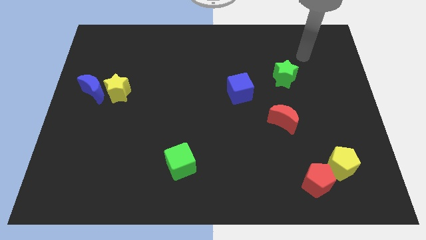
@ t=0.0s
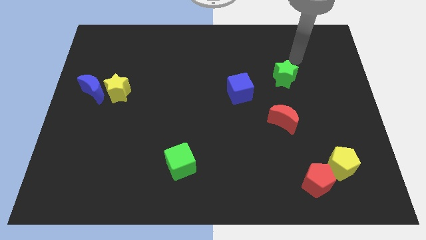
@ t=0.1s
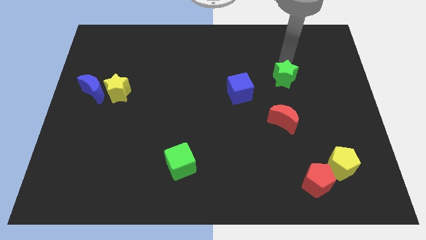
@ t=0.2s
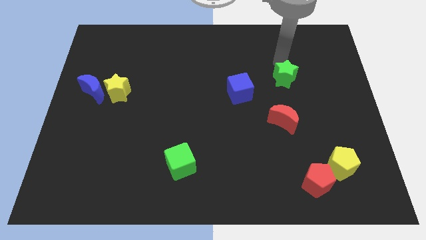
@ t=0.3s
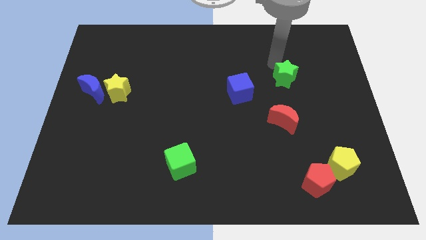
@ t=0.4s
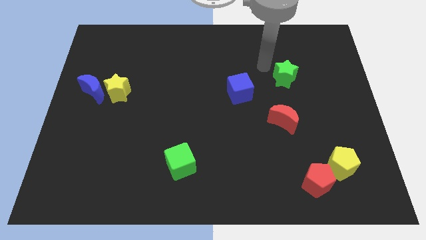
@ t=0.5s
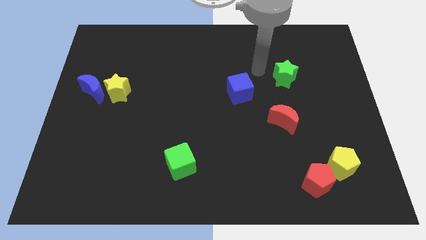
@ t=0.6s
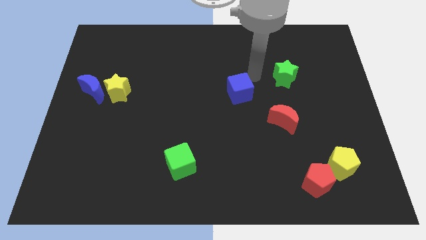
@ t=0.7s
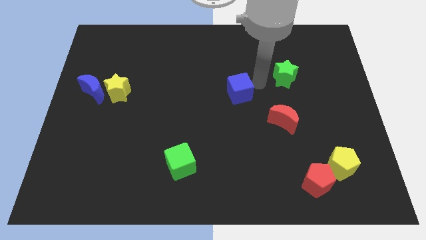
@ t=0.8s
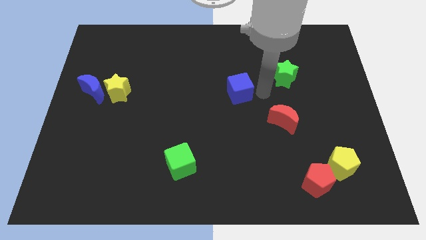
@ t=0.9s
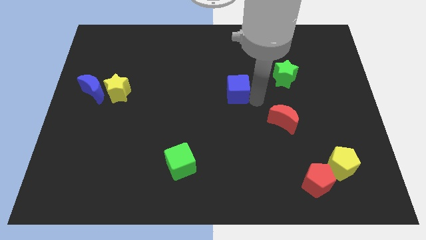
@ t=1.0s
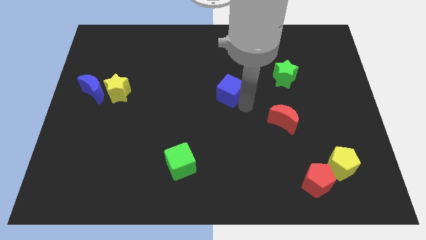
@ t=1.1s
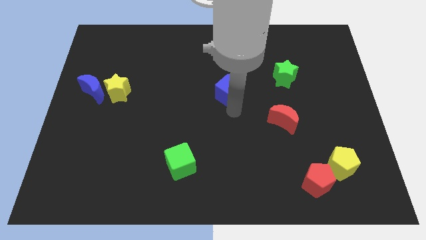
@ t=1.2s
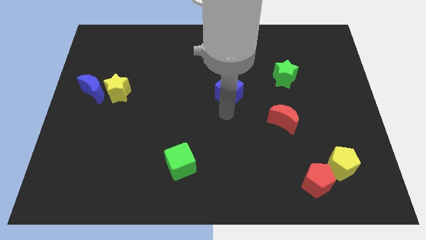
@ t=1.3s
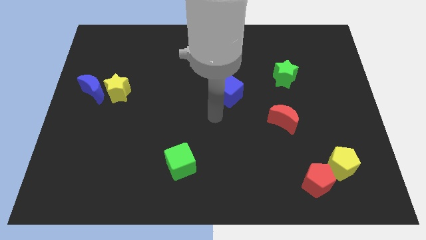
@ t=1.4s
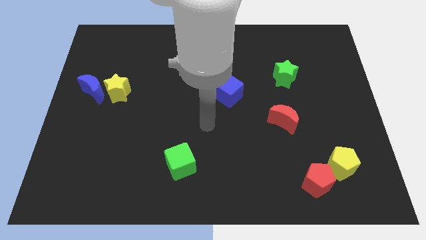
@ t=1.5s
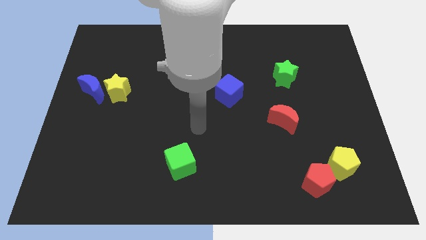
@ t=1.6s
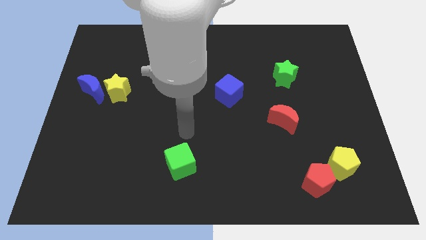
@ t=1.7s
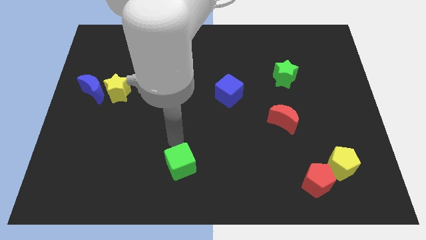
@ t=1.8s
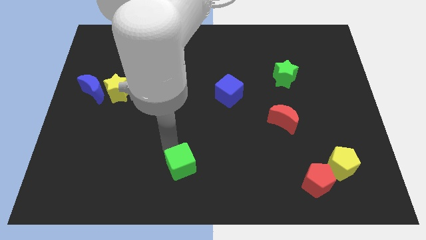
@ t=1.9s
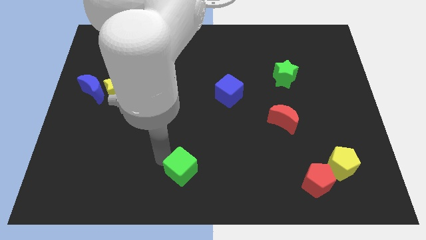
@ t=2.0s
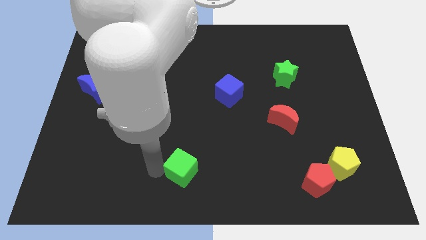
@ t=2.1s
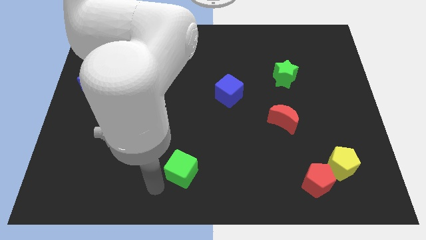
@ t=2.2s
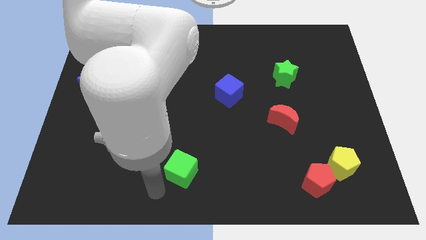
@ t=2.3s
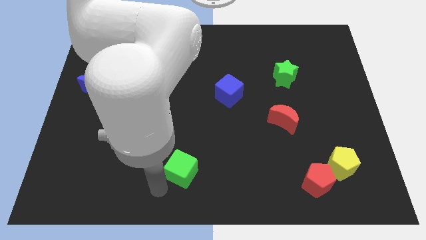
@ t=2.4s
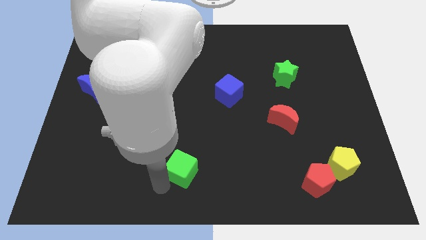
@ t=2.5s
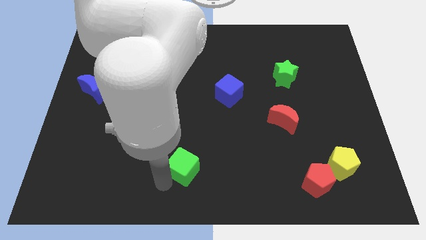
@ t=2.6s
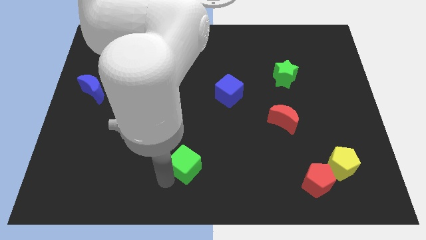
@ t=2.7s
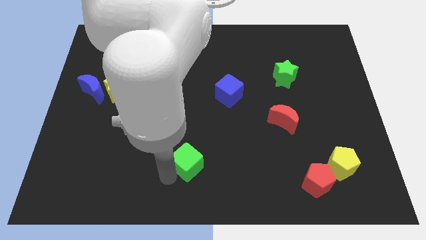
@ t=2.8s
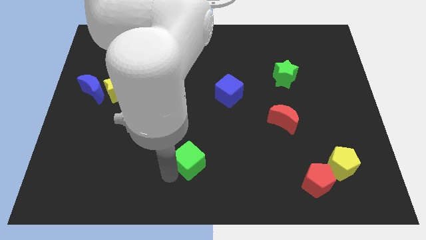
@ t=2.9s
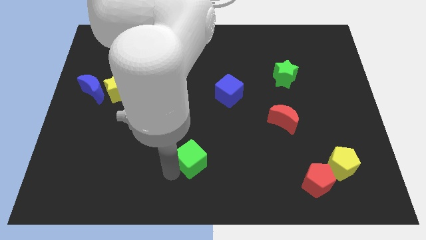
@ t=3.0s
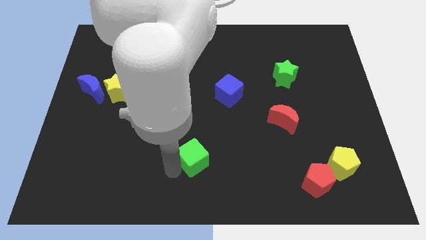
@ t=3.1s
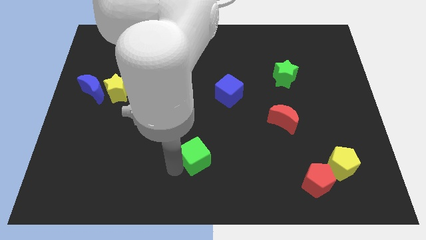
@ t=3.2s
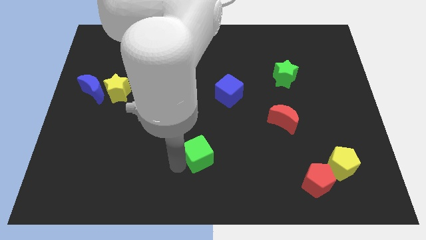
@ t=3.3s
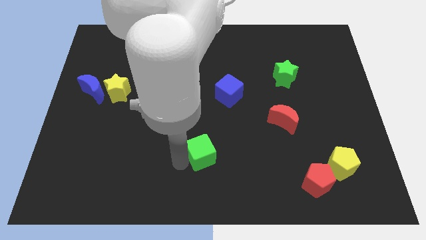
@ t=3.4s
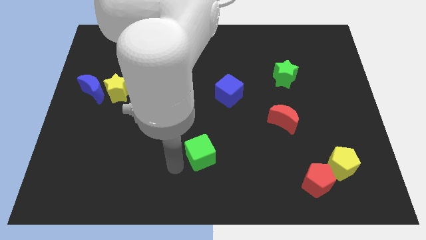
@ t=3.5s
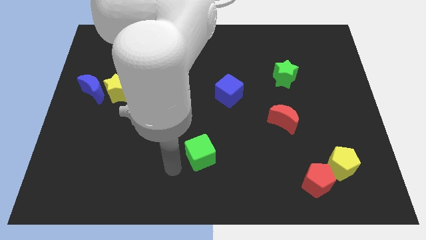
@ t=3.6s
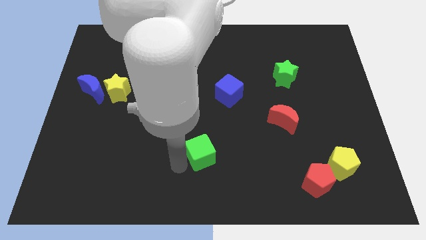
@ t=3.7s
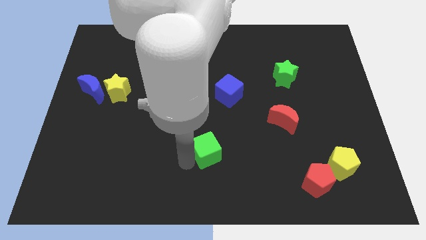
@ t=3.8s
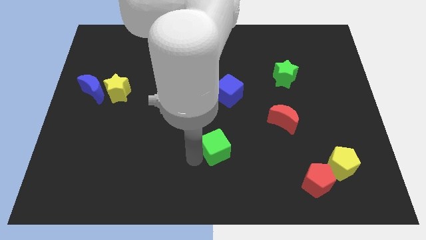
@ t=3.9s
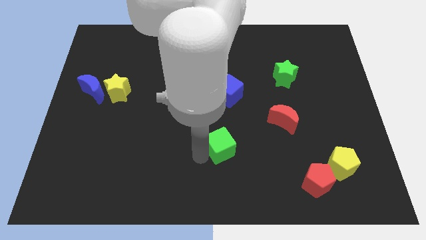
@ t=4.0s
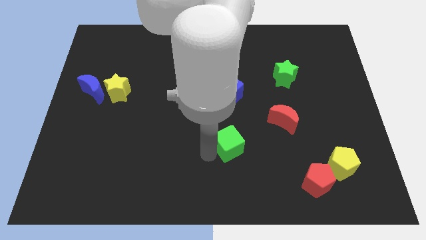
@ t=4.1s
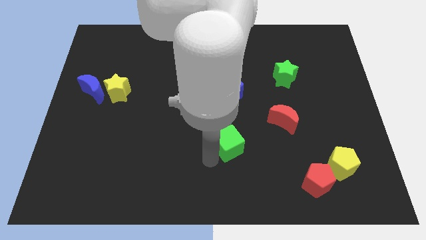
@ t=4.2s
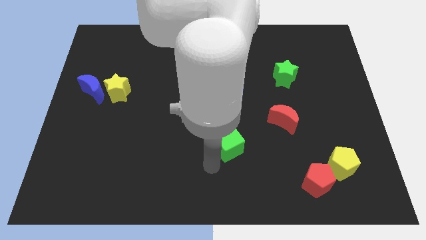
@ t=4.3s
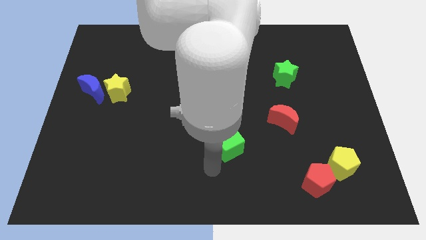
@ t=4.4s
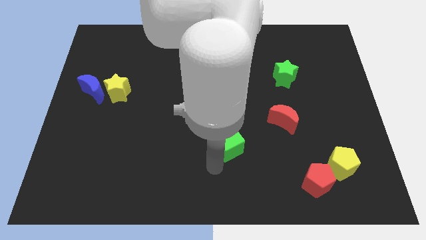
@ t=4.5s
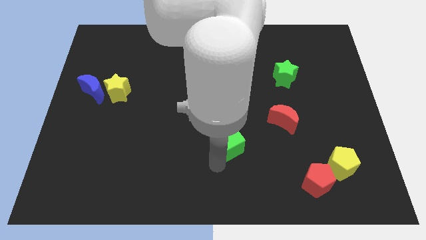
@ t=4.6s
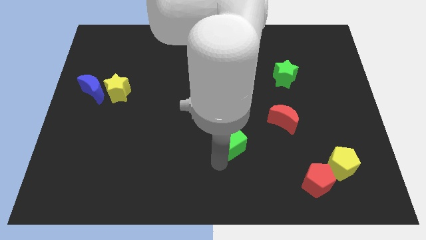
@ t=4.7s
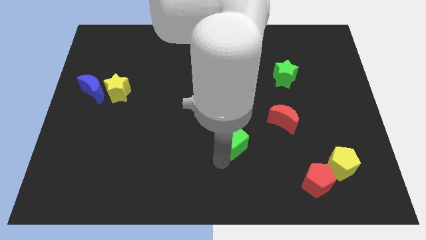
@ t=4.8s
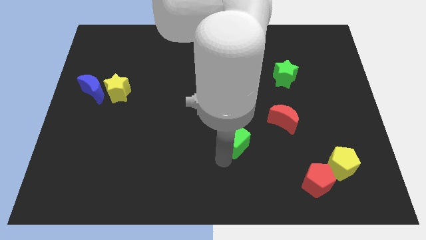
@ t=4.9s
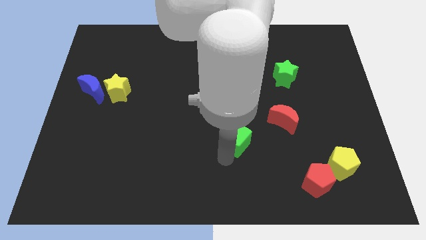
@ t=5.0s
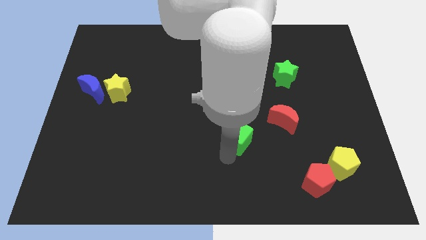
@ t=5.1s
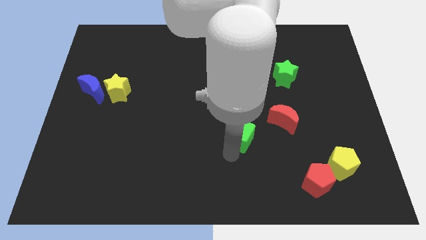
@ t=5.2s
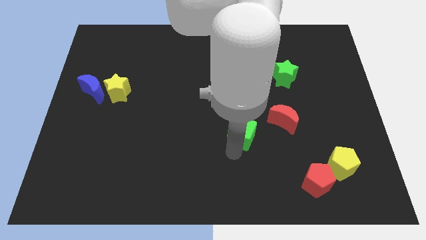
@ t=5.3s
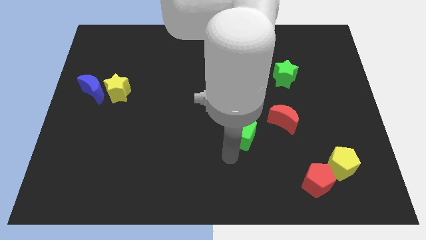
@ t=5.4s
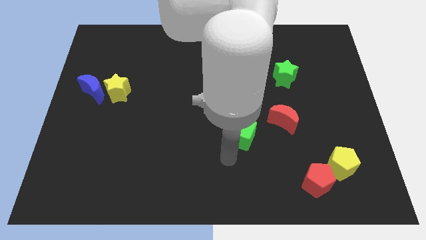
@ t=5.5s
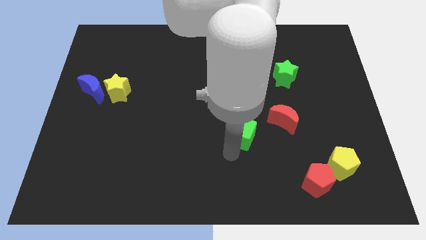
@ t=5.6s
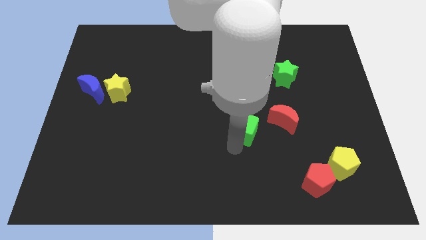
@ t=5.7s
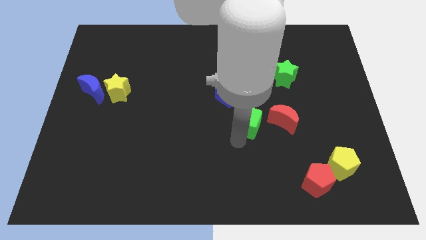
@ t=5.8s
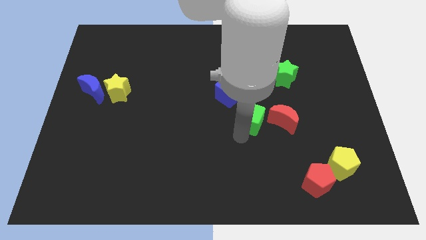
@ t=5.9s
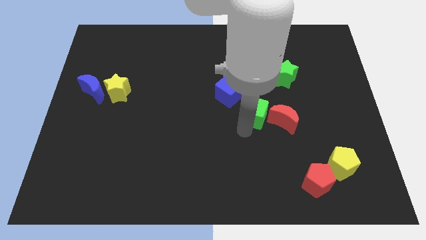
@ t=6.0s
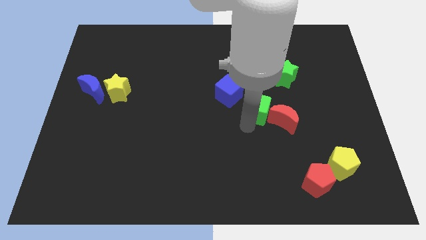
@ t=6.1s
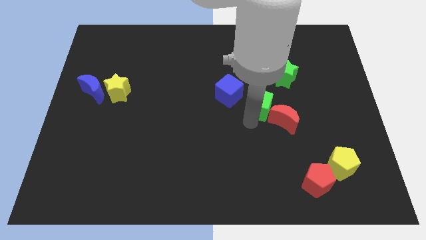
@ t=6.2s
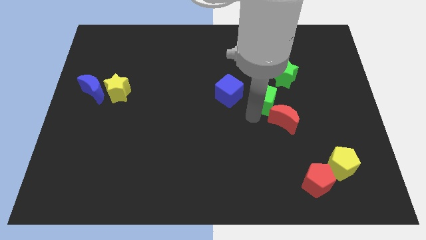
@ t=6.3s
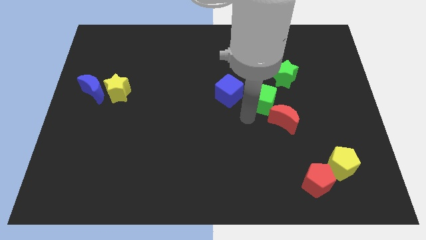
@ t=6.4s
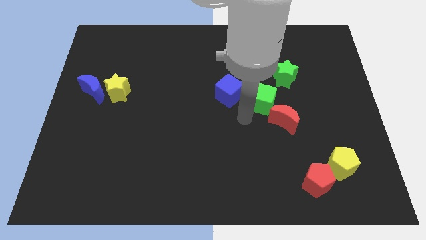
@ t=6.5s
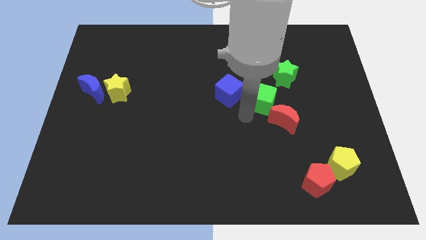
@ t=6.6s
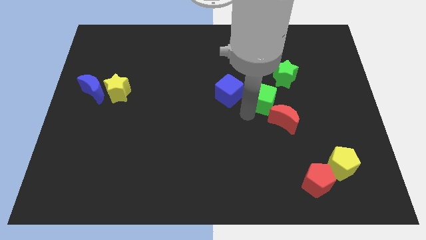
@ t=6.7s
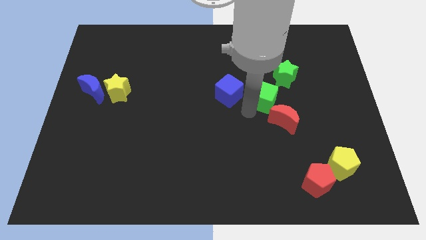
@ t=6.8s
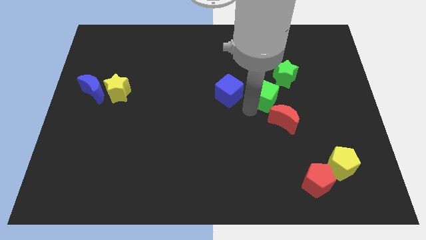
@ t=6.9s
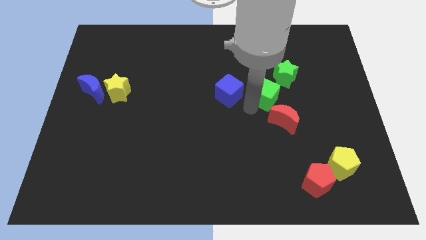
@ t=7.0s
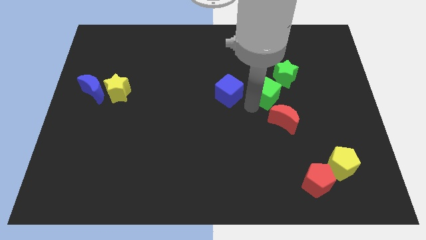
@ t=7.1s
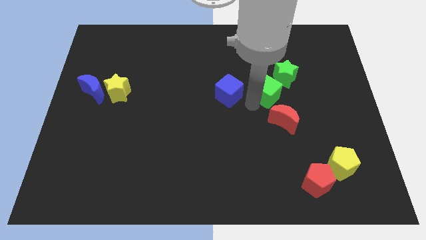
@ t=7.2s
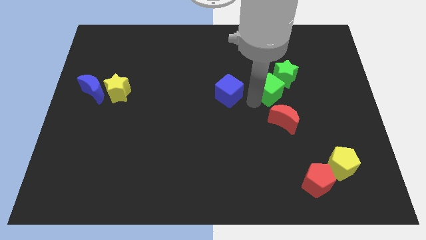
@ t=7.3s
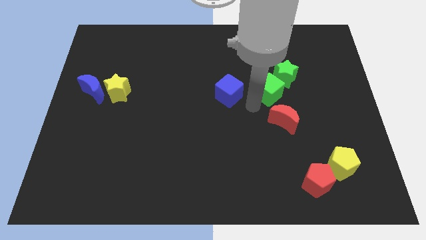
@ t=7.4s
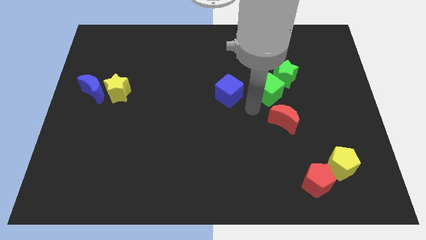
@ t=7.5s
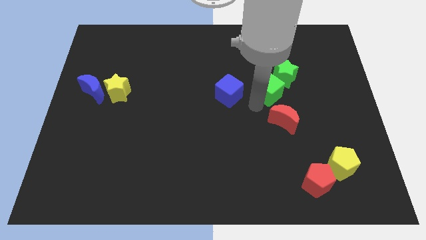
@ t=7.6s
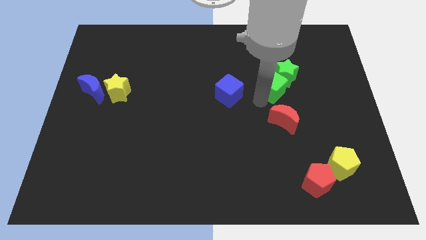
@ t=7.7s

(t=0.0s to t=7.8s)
put the green cube towards the green star
